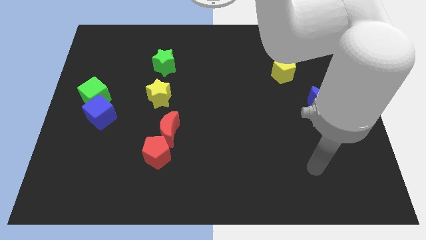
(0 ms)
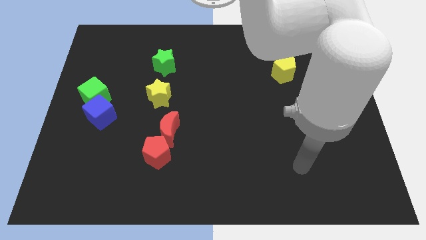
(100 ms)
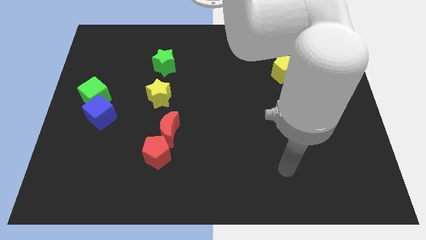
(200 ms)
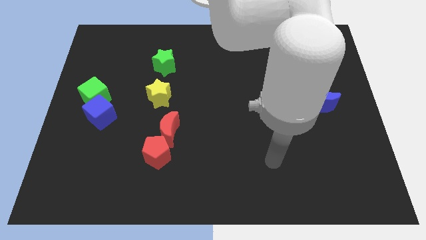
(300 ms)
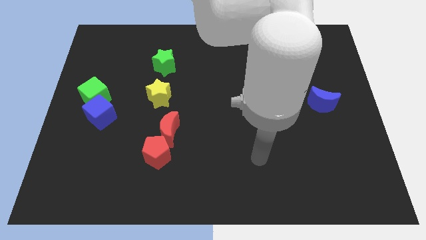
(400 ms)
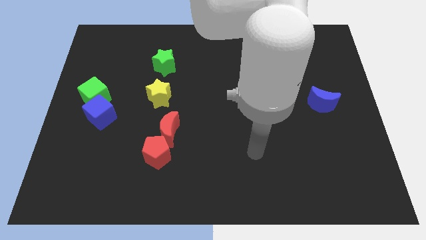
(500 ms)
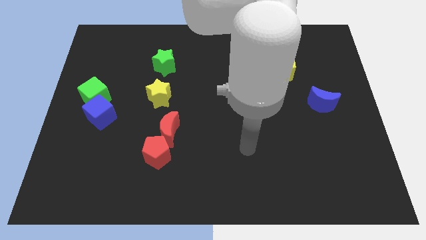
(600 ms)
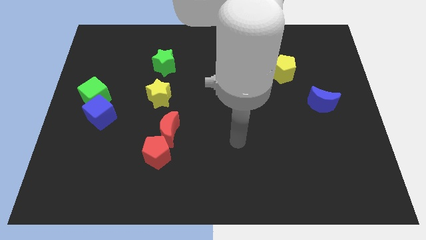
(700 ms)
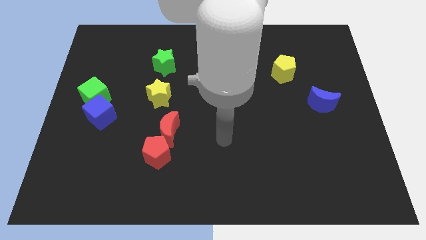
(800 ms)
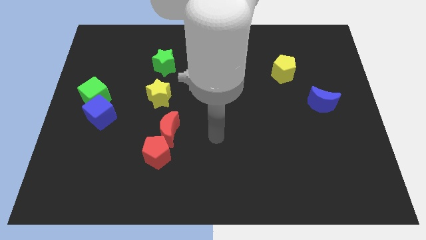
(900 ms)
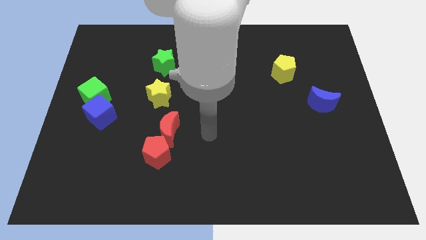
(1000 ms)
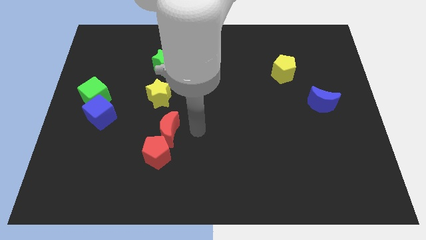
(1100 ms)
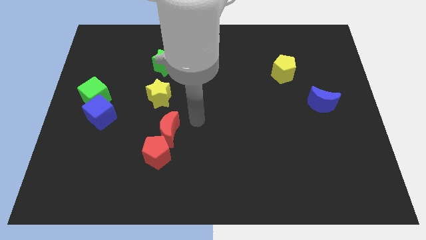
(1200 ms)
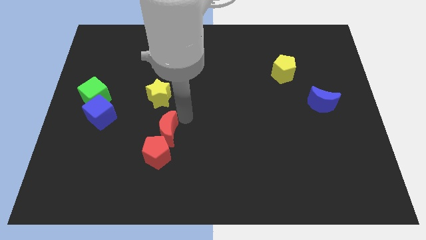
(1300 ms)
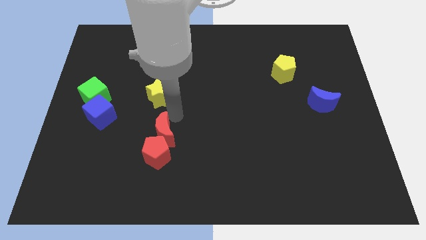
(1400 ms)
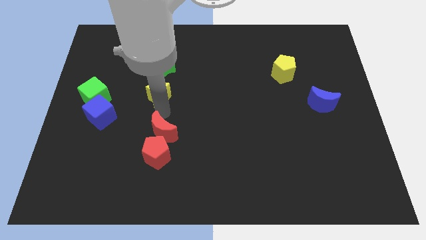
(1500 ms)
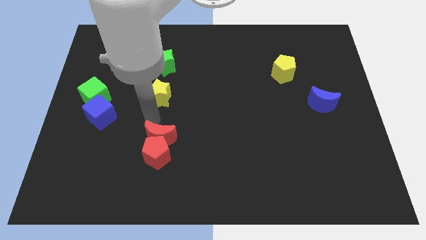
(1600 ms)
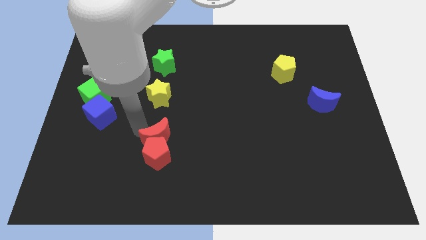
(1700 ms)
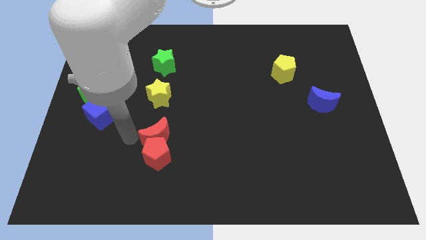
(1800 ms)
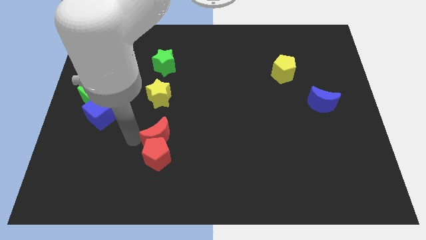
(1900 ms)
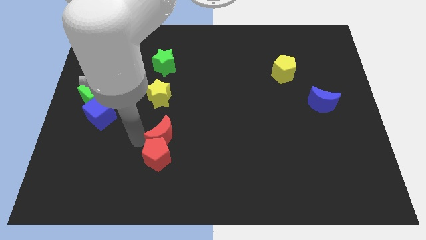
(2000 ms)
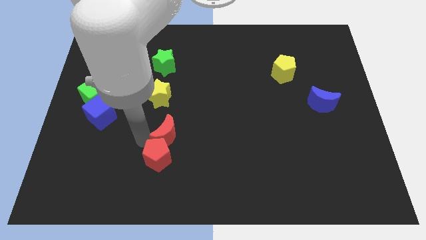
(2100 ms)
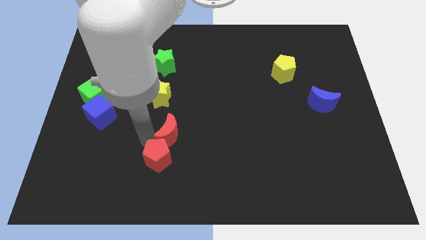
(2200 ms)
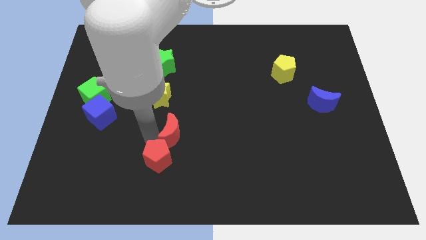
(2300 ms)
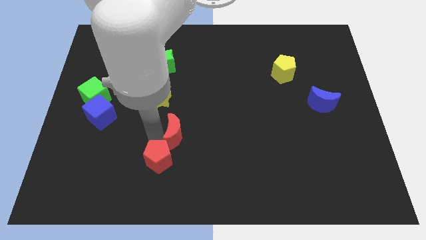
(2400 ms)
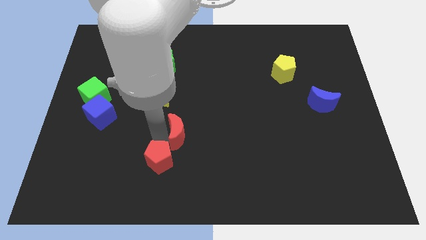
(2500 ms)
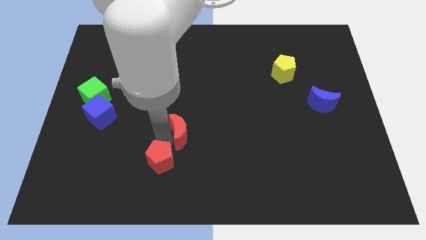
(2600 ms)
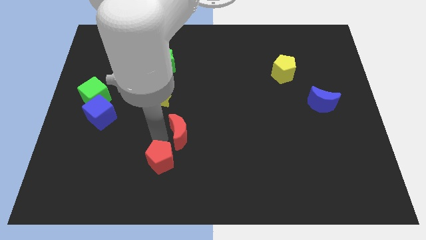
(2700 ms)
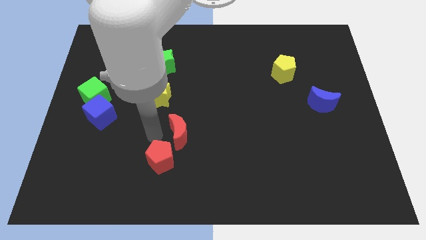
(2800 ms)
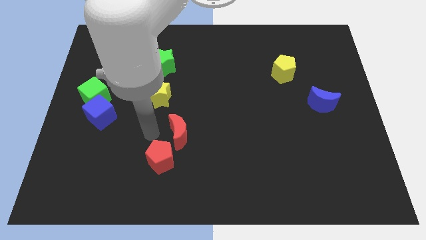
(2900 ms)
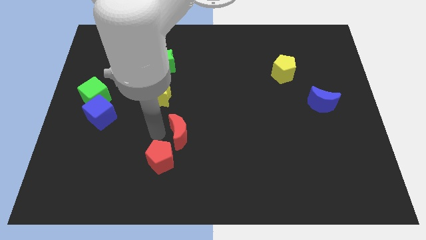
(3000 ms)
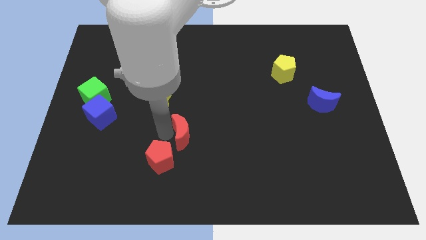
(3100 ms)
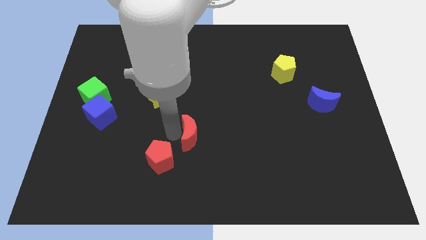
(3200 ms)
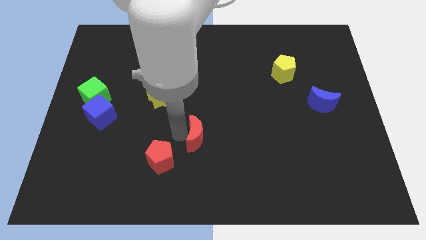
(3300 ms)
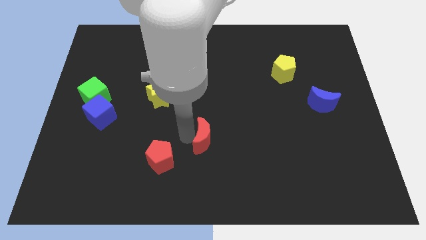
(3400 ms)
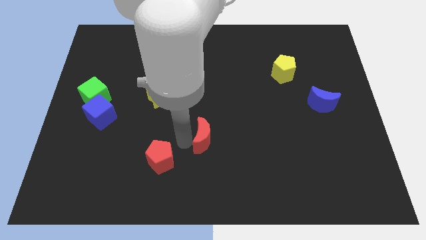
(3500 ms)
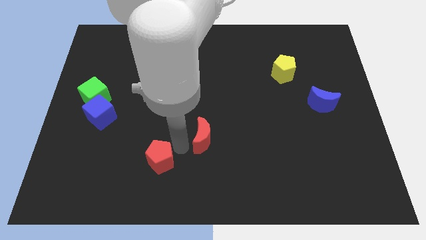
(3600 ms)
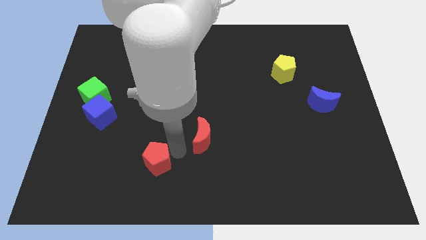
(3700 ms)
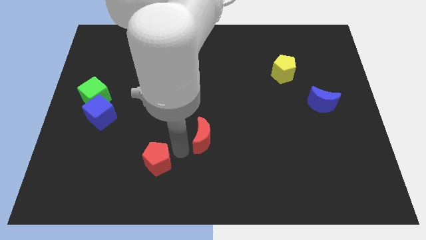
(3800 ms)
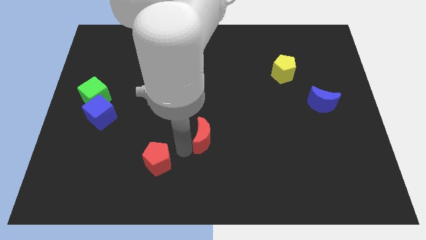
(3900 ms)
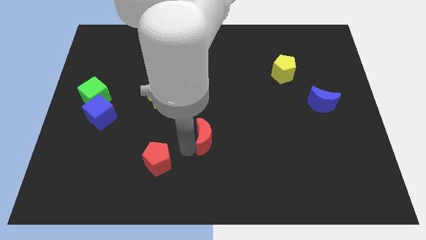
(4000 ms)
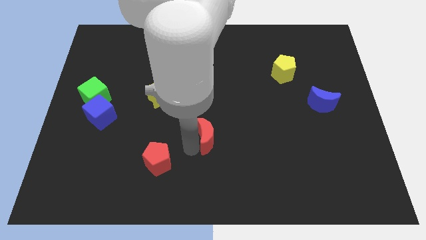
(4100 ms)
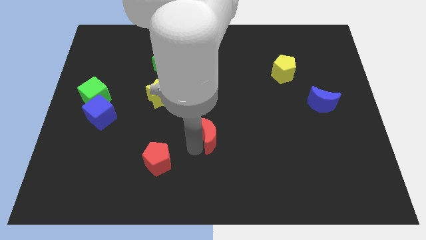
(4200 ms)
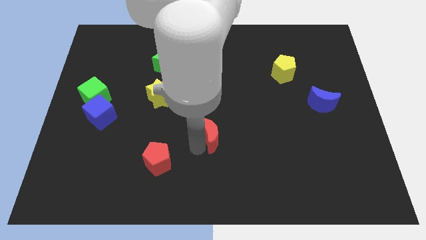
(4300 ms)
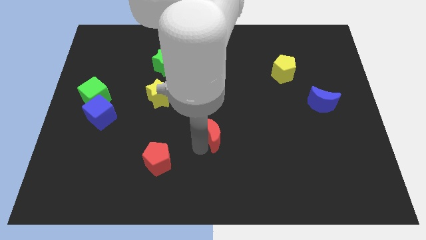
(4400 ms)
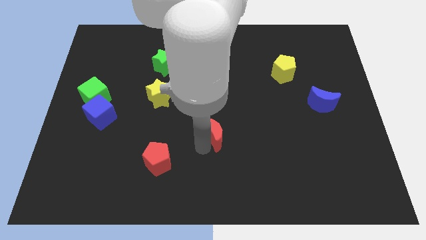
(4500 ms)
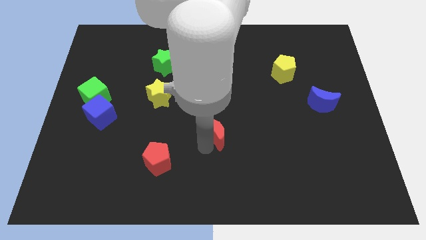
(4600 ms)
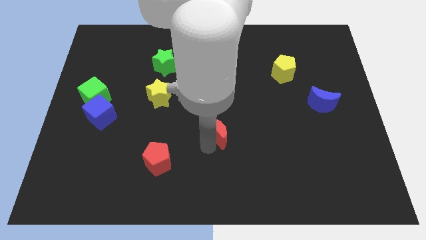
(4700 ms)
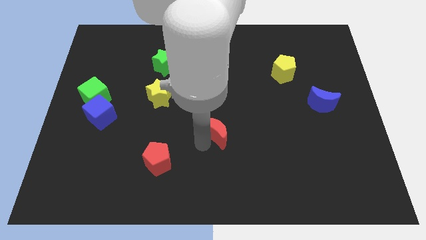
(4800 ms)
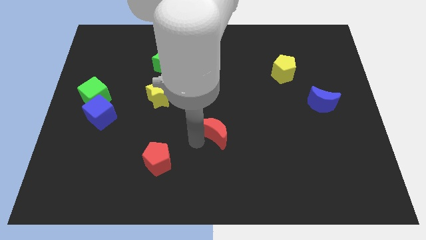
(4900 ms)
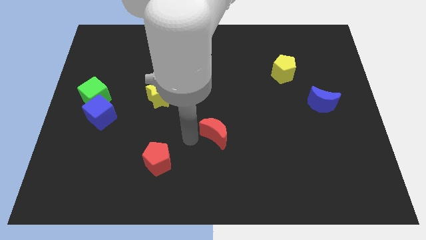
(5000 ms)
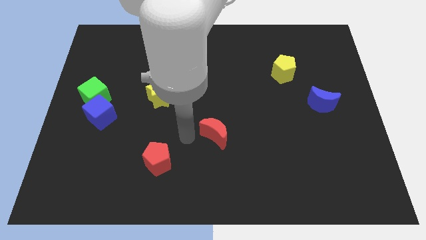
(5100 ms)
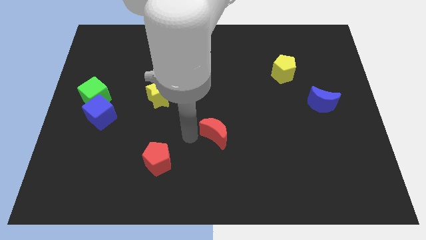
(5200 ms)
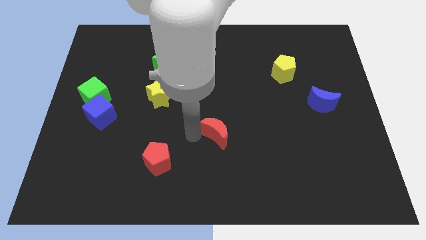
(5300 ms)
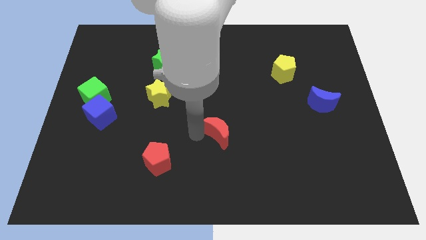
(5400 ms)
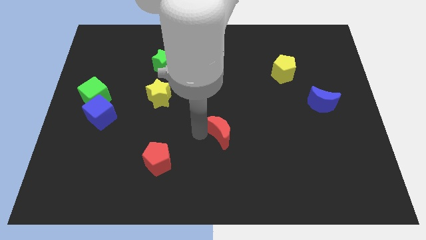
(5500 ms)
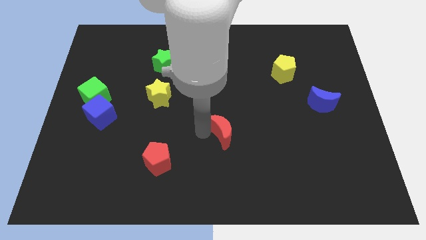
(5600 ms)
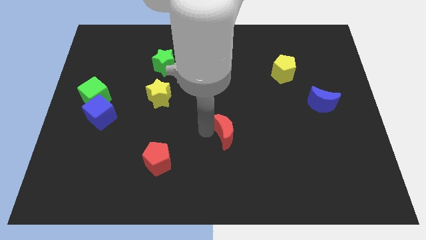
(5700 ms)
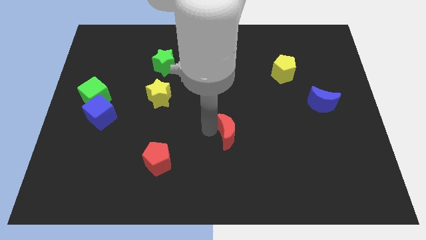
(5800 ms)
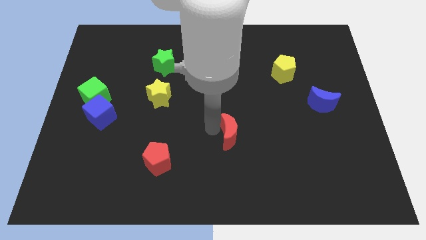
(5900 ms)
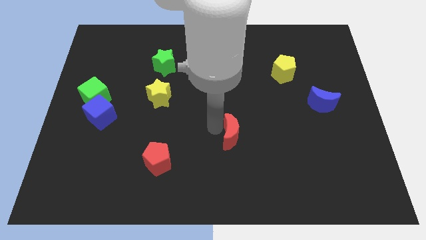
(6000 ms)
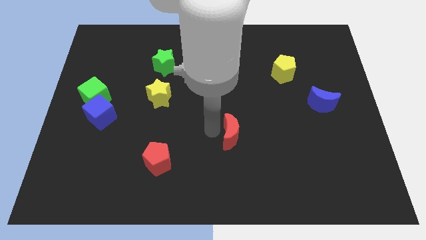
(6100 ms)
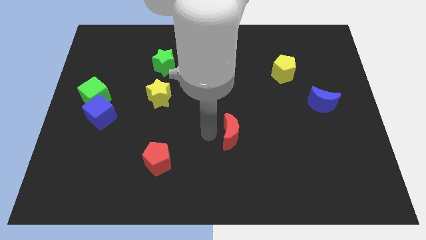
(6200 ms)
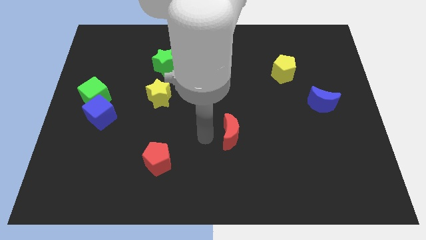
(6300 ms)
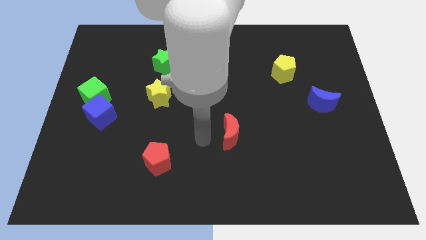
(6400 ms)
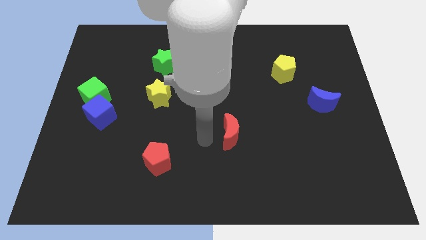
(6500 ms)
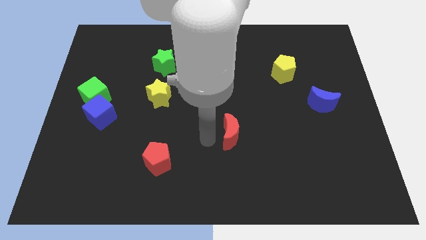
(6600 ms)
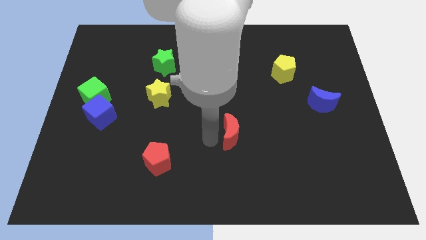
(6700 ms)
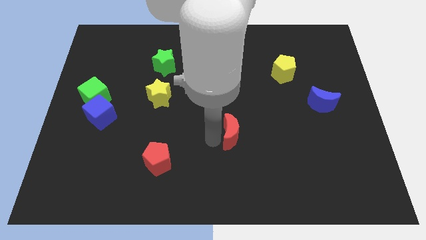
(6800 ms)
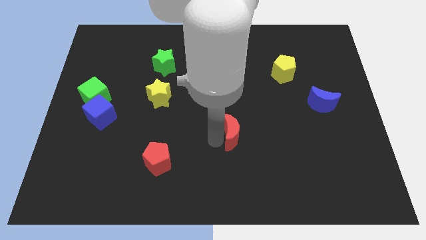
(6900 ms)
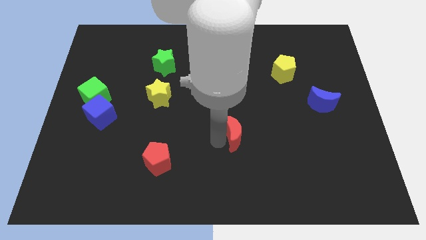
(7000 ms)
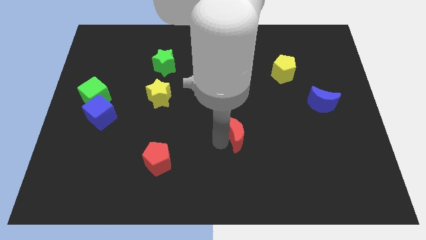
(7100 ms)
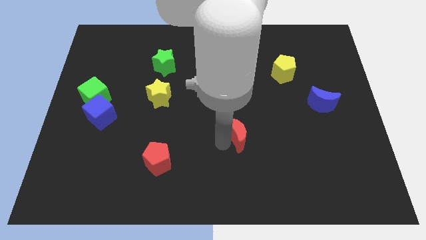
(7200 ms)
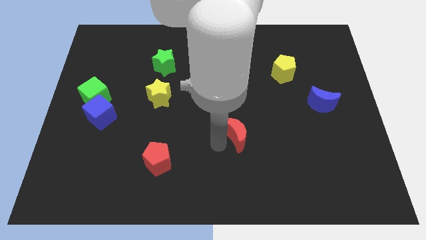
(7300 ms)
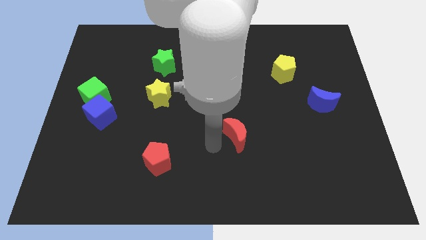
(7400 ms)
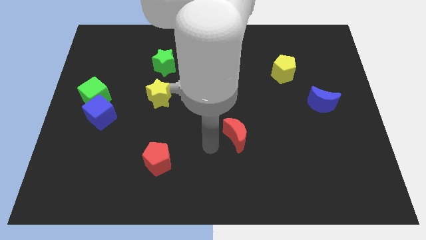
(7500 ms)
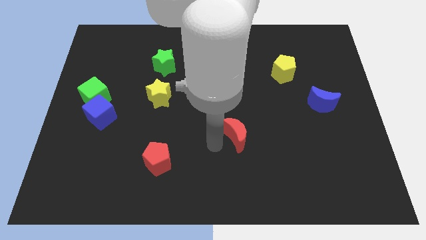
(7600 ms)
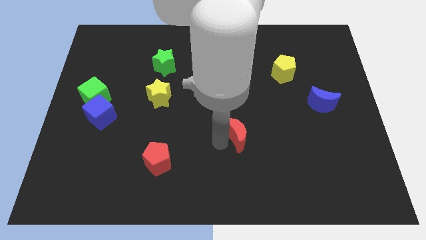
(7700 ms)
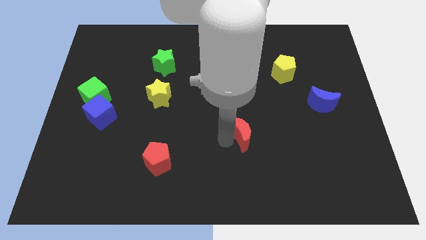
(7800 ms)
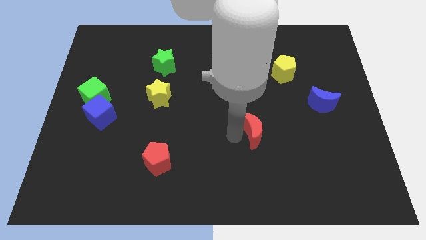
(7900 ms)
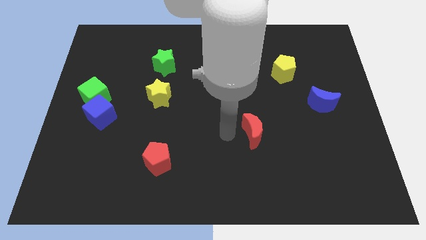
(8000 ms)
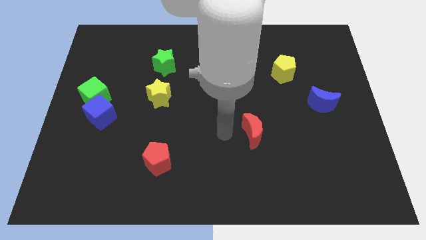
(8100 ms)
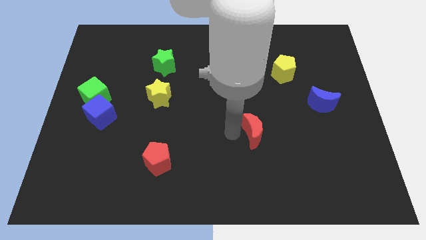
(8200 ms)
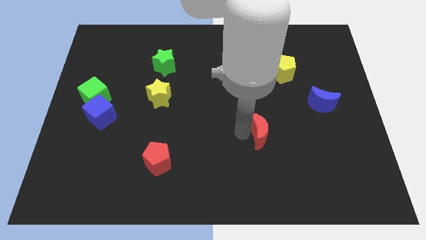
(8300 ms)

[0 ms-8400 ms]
slide the red moon right
